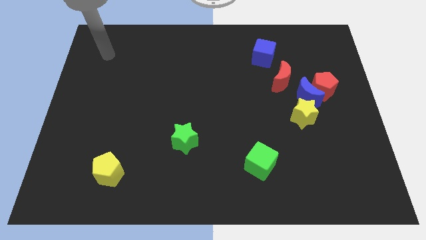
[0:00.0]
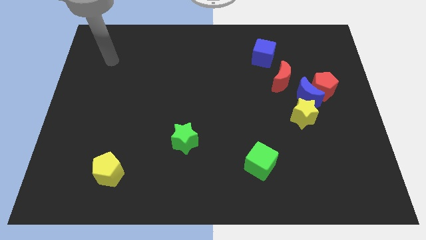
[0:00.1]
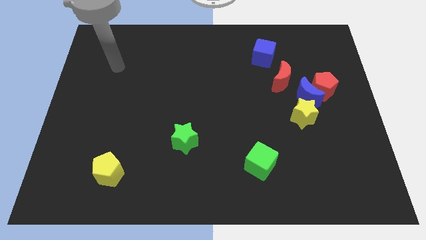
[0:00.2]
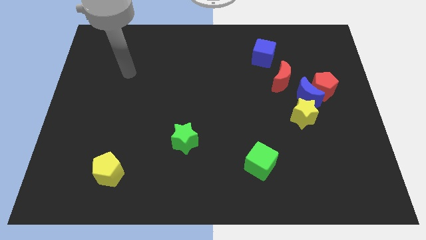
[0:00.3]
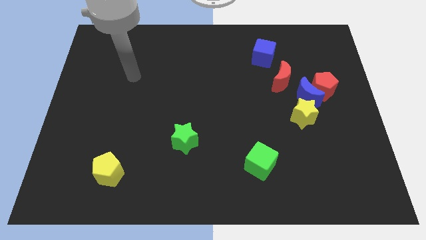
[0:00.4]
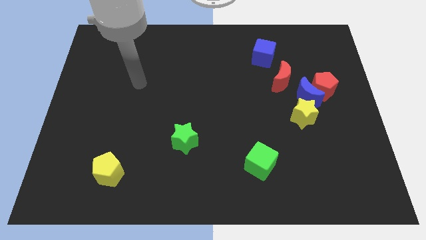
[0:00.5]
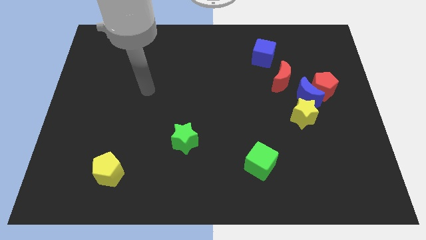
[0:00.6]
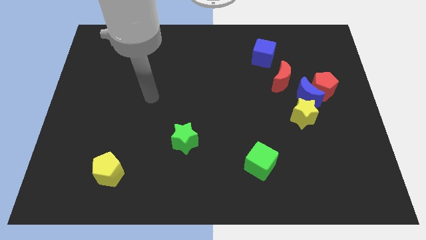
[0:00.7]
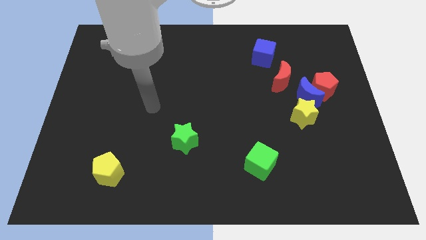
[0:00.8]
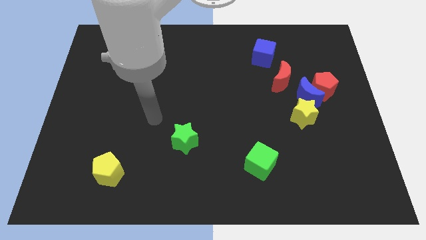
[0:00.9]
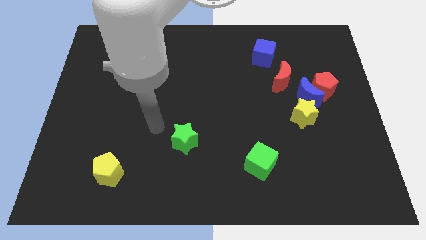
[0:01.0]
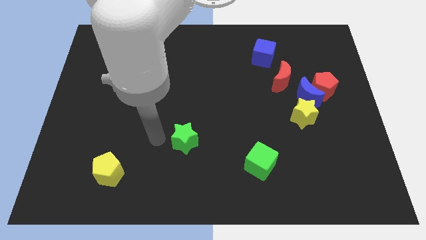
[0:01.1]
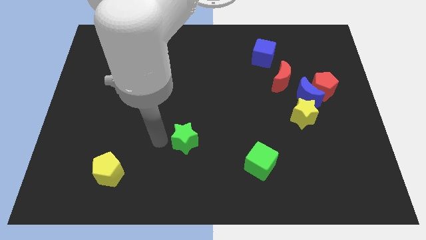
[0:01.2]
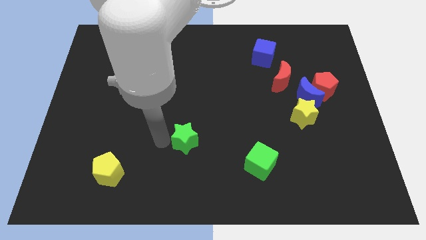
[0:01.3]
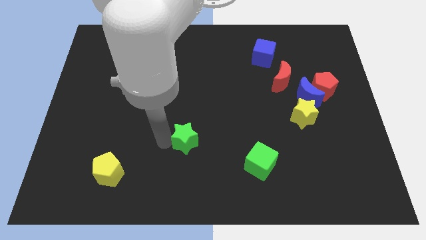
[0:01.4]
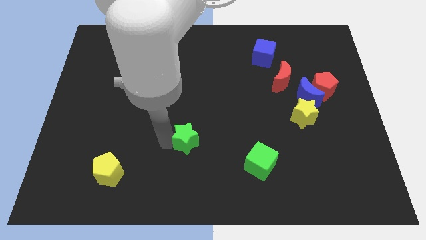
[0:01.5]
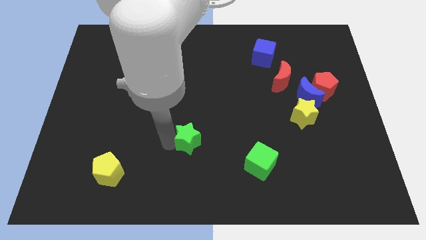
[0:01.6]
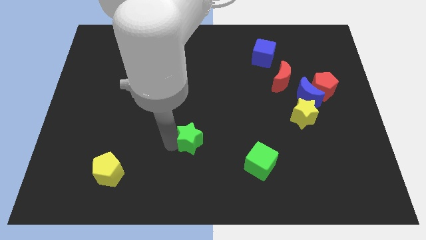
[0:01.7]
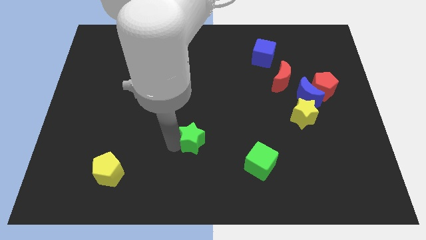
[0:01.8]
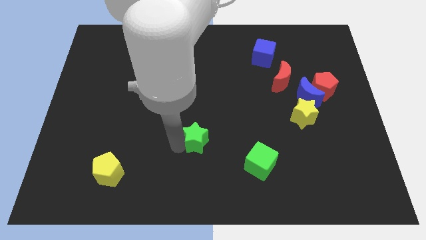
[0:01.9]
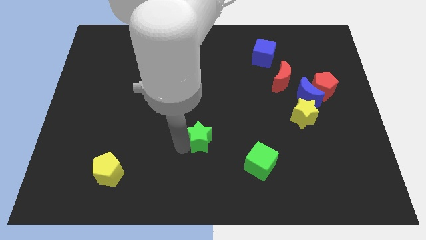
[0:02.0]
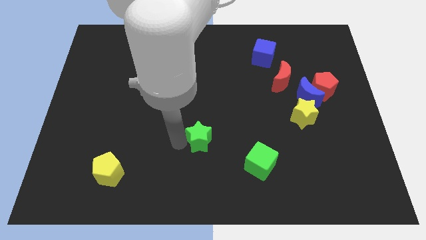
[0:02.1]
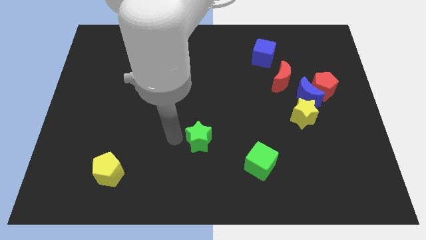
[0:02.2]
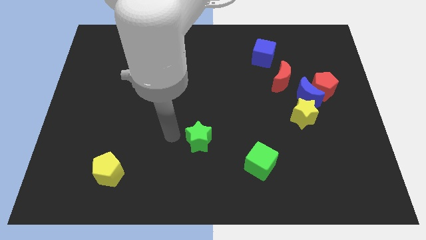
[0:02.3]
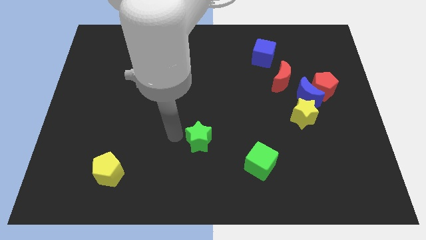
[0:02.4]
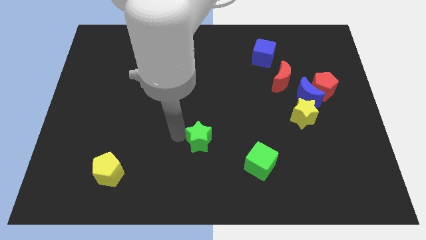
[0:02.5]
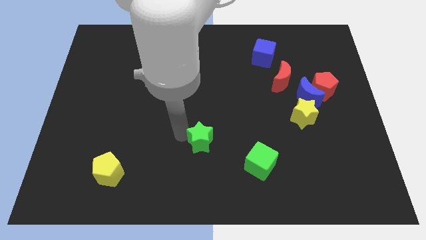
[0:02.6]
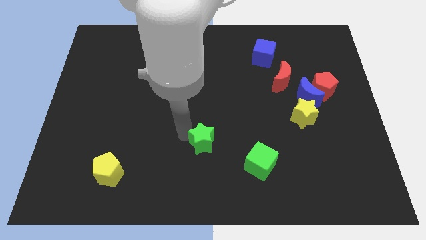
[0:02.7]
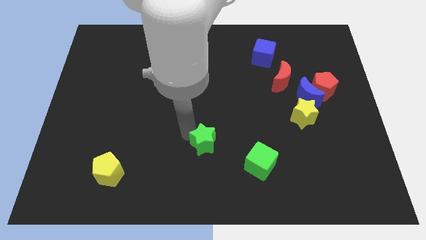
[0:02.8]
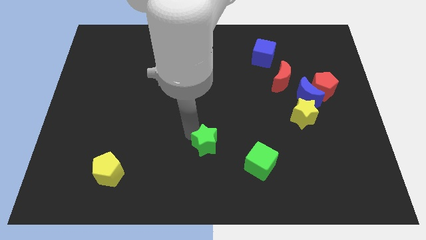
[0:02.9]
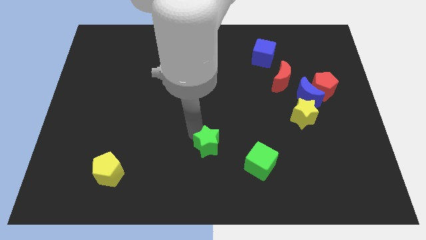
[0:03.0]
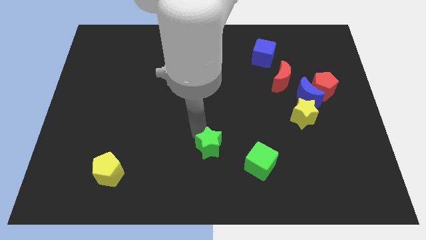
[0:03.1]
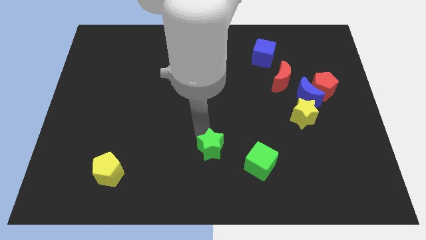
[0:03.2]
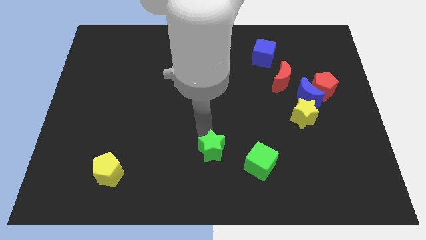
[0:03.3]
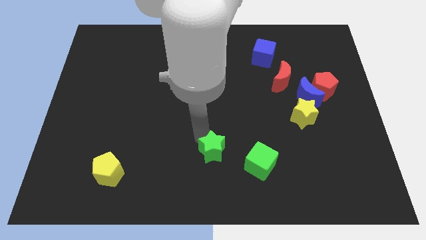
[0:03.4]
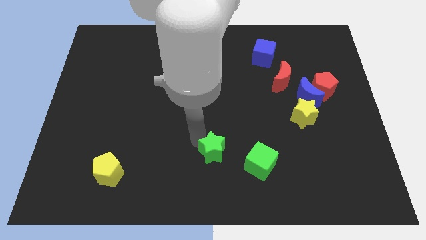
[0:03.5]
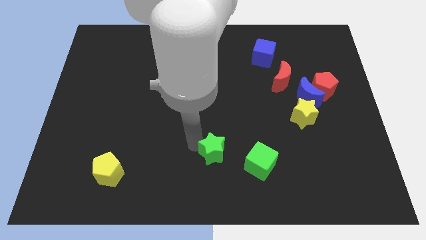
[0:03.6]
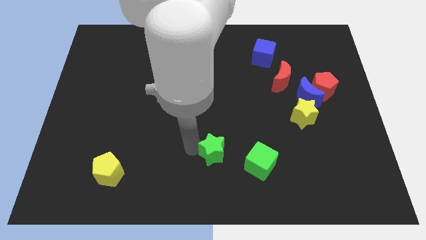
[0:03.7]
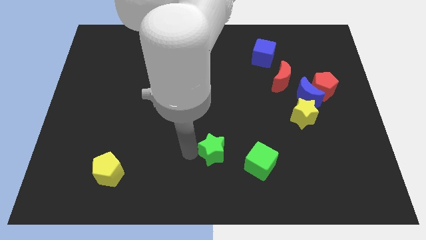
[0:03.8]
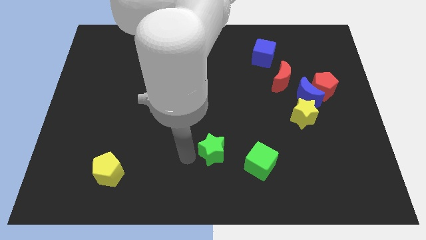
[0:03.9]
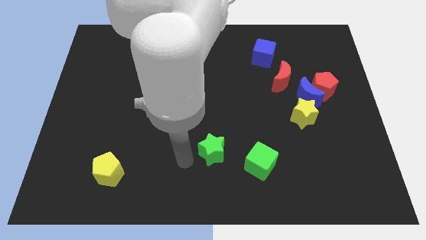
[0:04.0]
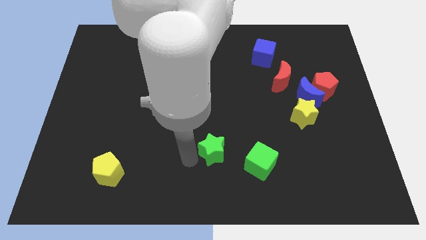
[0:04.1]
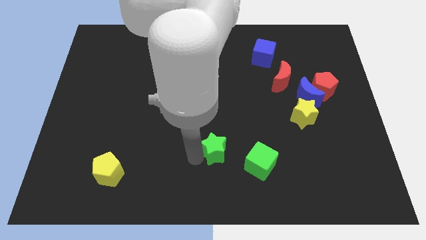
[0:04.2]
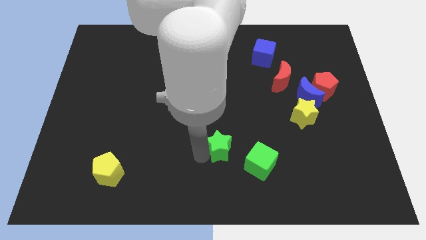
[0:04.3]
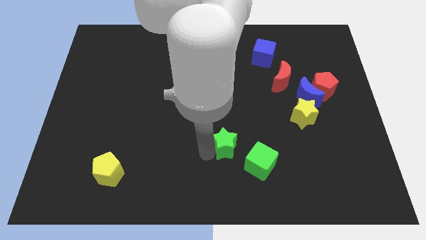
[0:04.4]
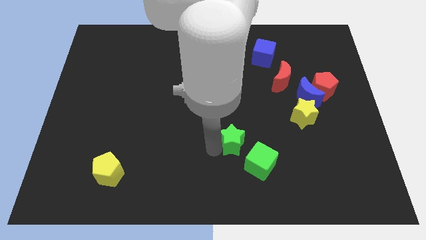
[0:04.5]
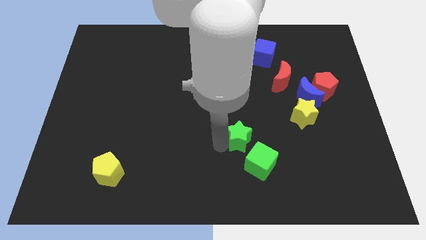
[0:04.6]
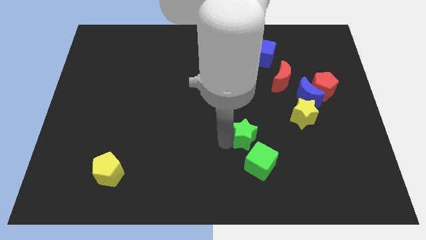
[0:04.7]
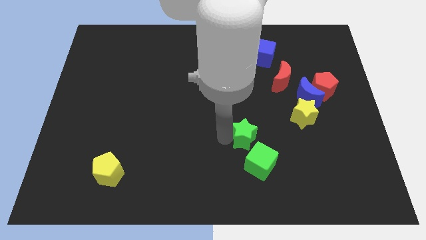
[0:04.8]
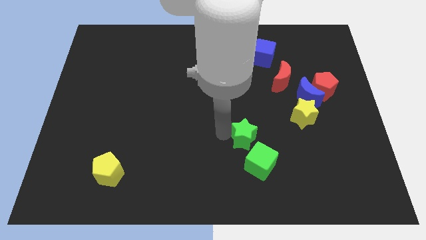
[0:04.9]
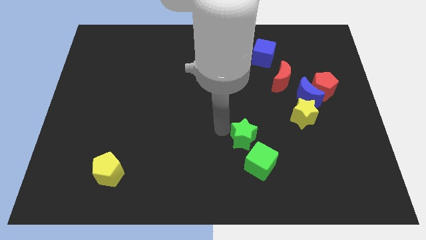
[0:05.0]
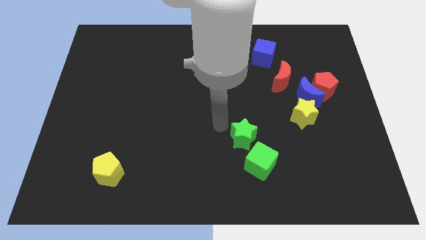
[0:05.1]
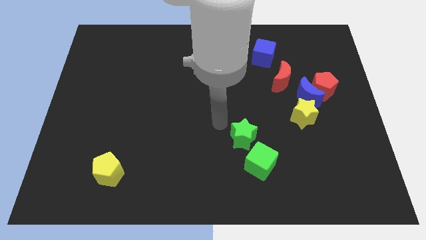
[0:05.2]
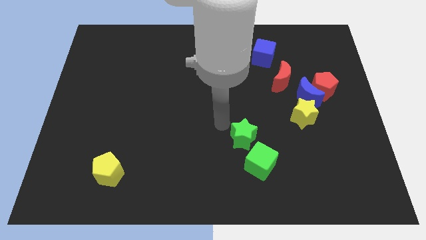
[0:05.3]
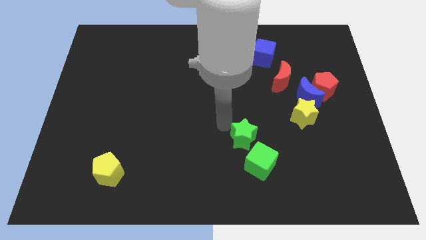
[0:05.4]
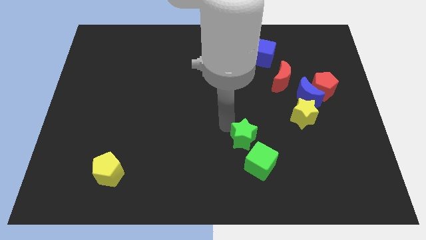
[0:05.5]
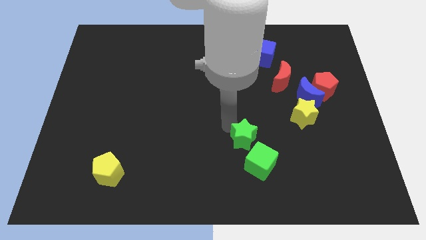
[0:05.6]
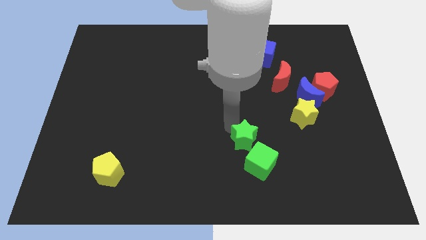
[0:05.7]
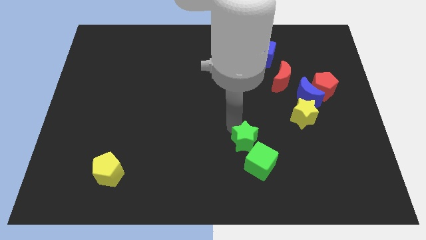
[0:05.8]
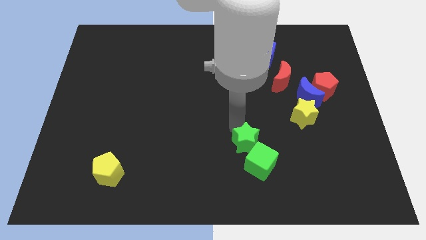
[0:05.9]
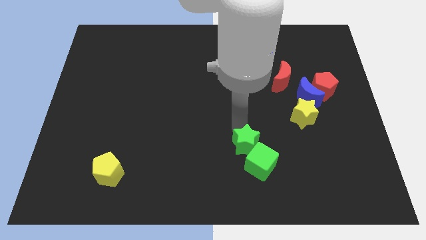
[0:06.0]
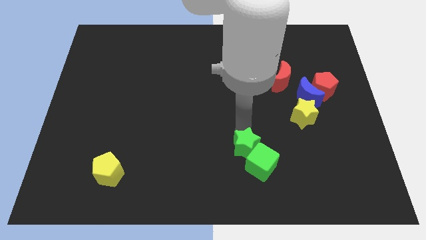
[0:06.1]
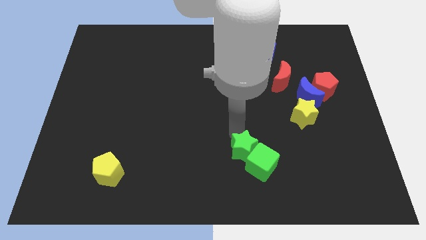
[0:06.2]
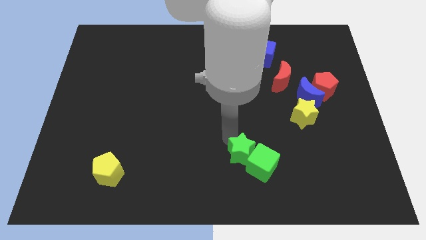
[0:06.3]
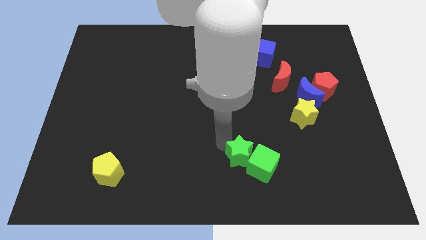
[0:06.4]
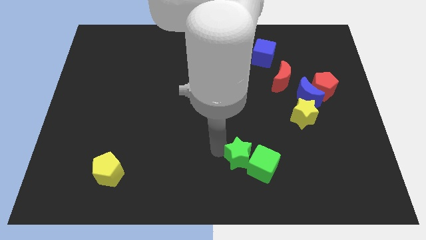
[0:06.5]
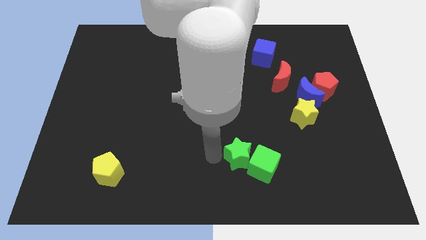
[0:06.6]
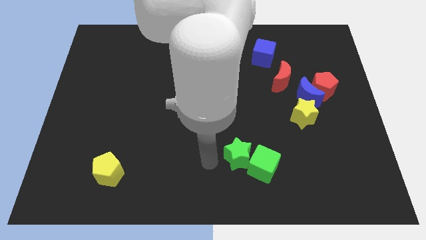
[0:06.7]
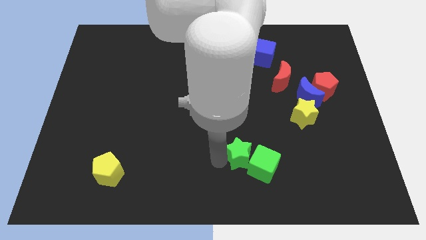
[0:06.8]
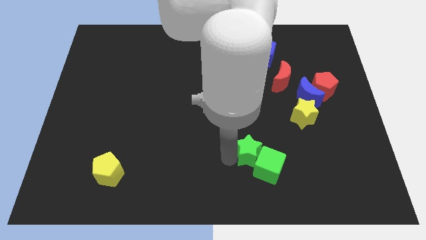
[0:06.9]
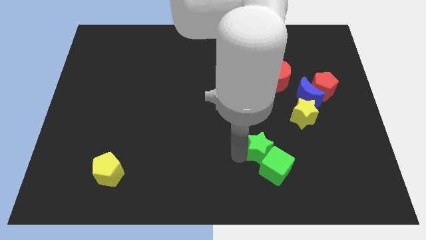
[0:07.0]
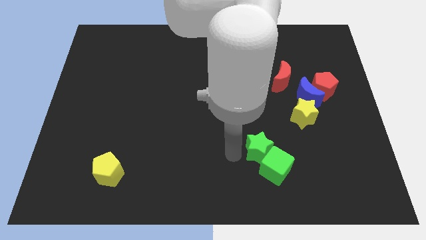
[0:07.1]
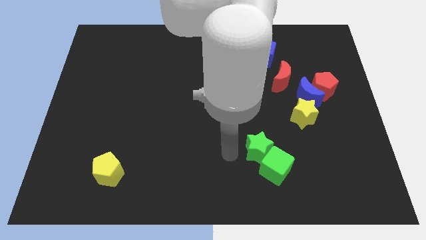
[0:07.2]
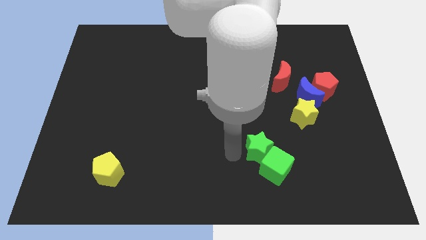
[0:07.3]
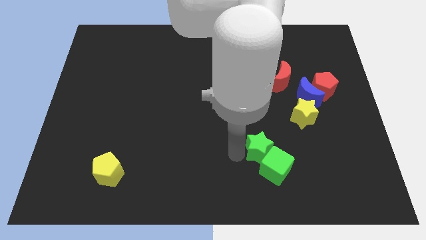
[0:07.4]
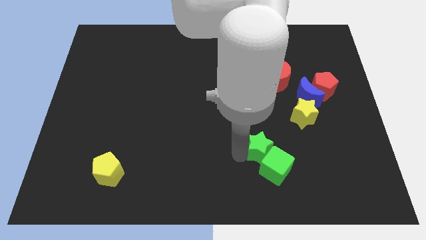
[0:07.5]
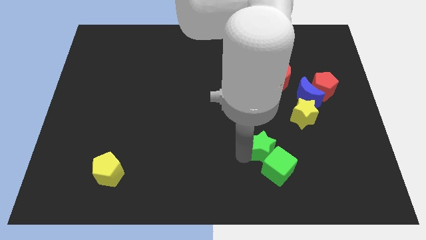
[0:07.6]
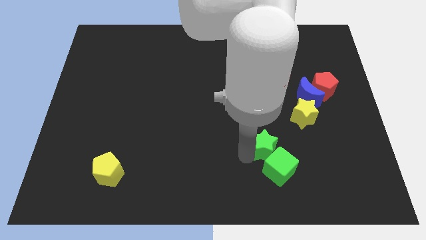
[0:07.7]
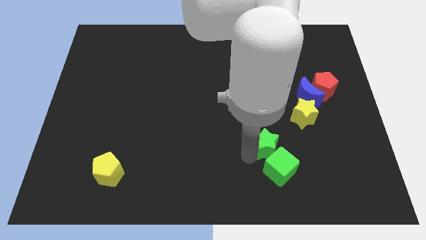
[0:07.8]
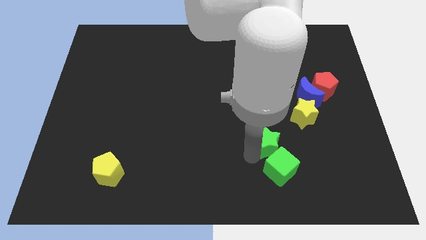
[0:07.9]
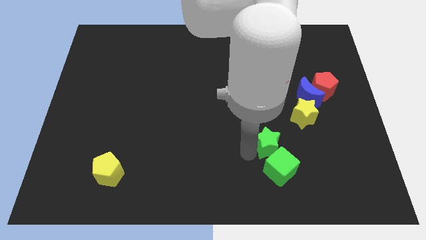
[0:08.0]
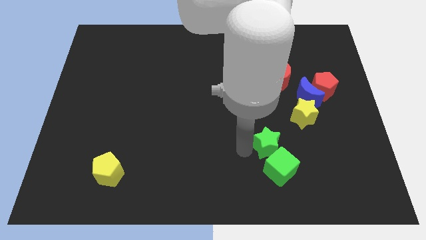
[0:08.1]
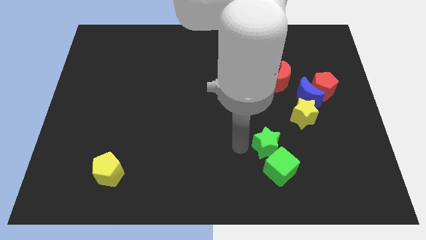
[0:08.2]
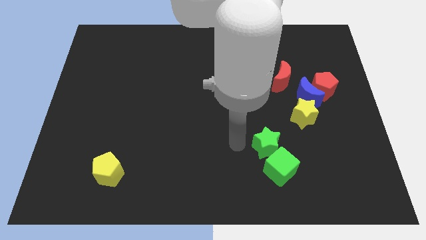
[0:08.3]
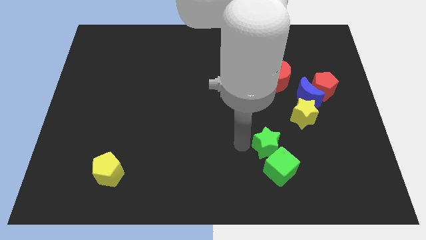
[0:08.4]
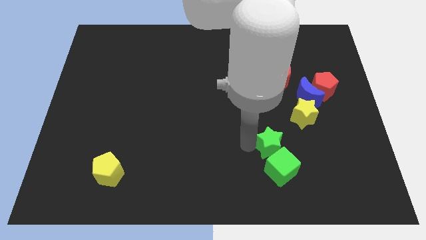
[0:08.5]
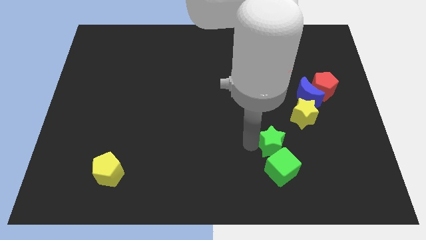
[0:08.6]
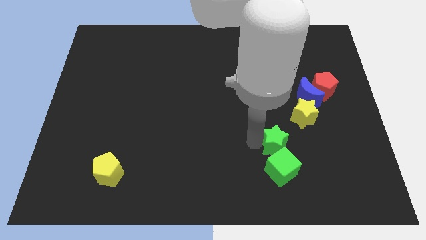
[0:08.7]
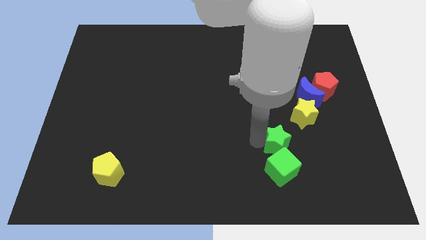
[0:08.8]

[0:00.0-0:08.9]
move the green star to the right
